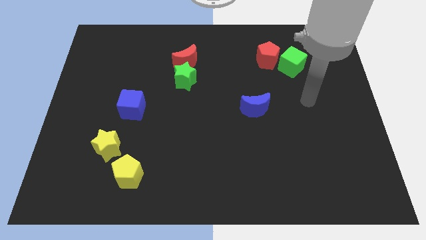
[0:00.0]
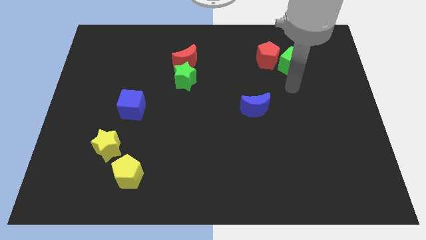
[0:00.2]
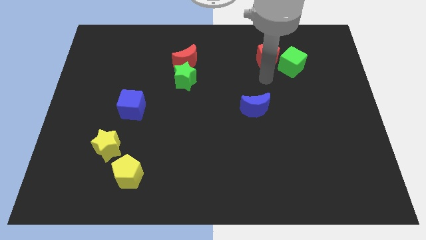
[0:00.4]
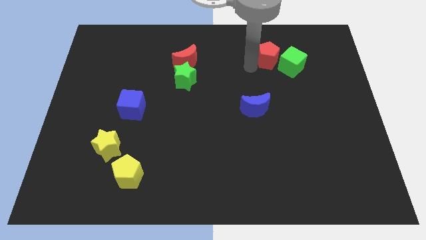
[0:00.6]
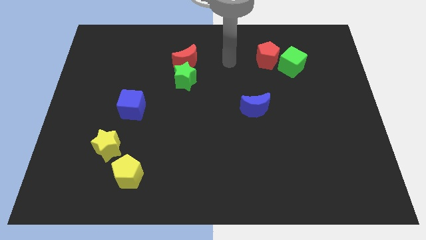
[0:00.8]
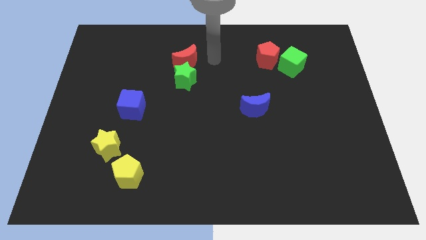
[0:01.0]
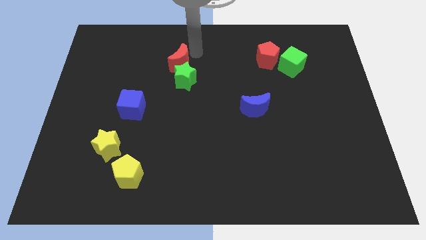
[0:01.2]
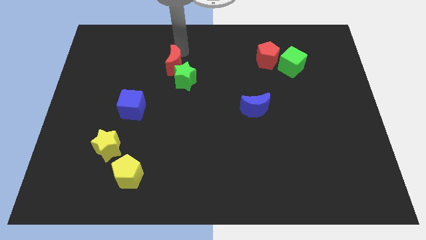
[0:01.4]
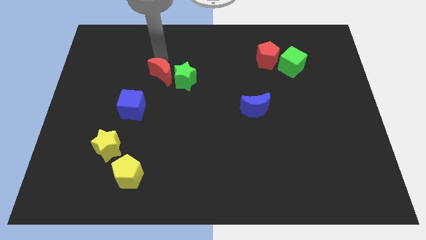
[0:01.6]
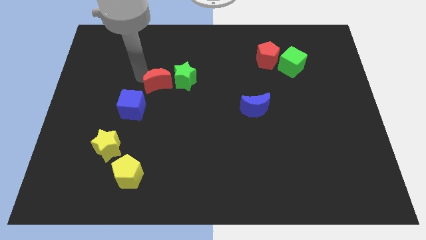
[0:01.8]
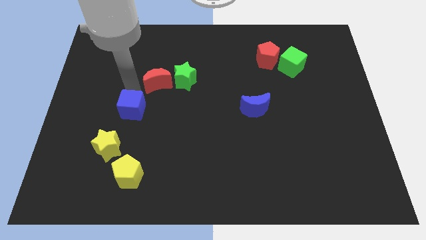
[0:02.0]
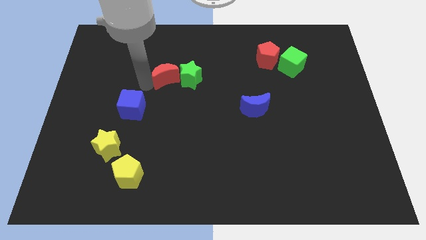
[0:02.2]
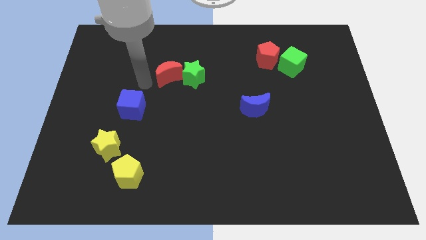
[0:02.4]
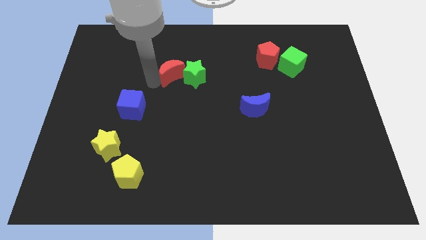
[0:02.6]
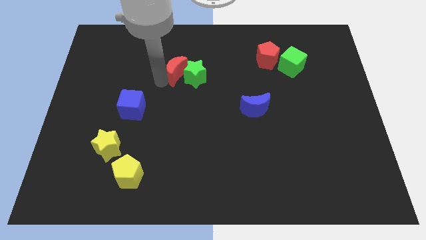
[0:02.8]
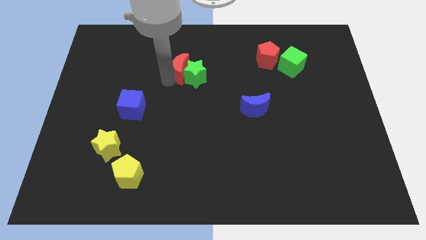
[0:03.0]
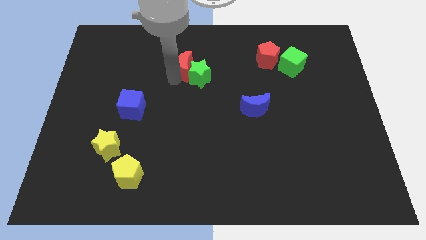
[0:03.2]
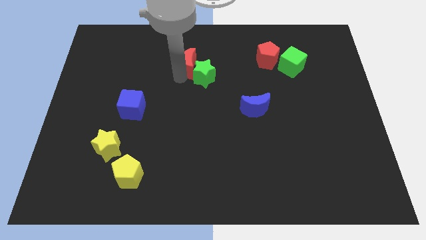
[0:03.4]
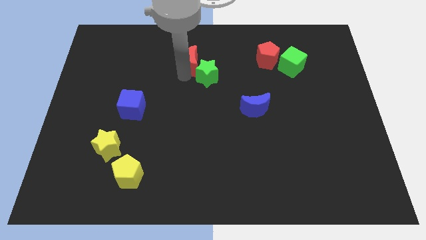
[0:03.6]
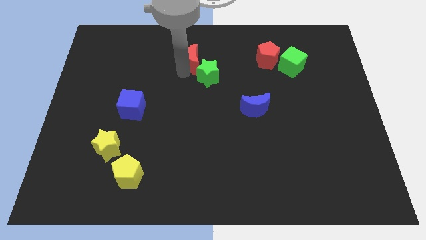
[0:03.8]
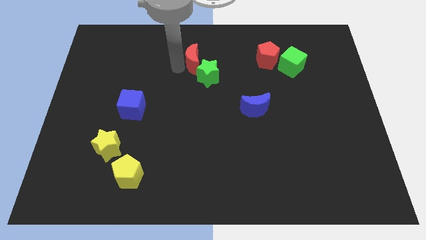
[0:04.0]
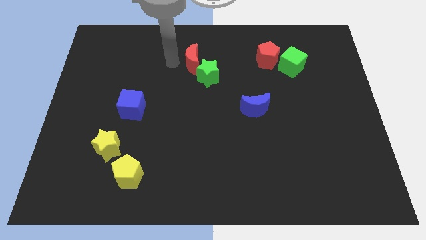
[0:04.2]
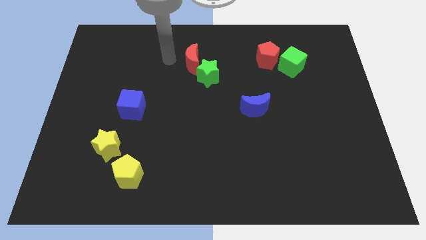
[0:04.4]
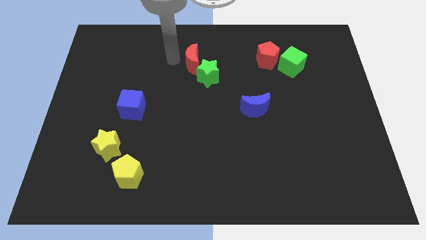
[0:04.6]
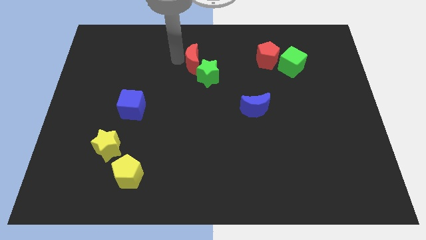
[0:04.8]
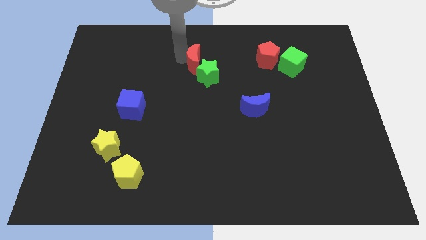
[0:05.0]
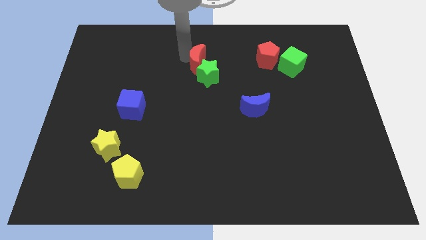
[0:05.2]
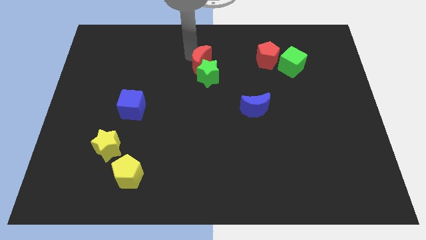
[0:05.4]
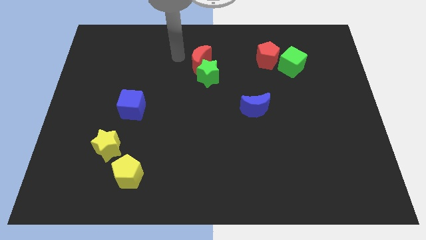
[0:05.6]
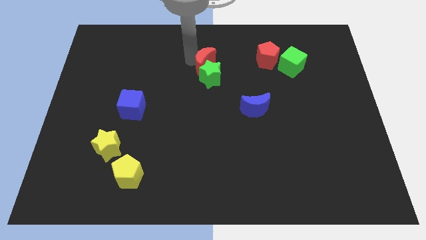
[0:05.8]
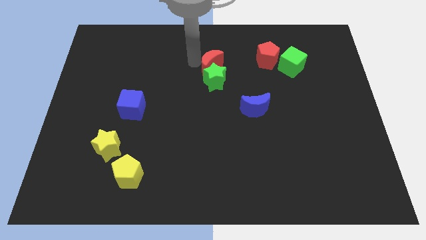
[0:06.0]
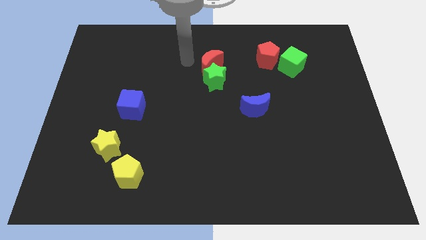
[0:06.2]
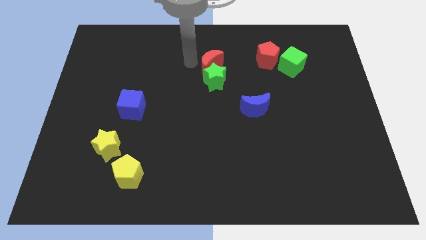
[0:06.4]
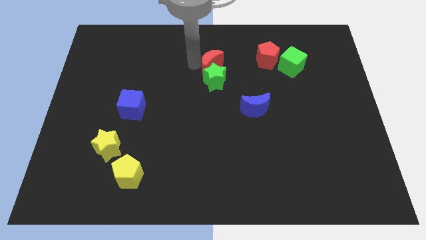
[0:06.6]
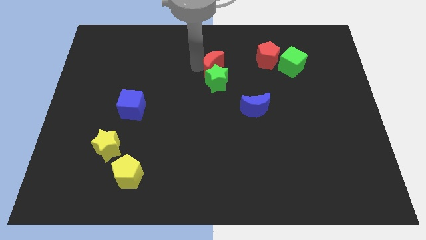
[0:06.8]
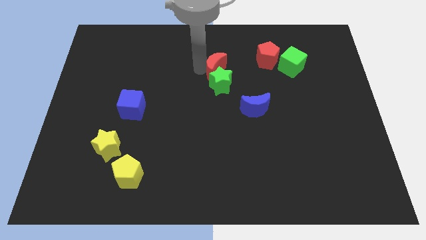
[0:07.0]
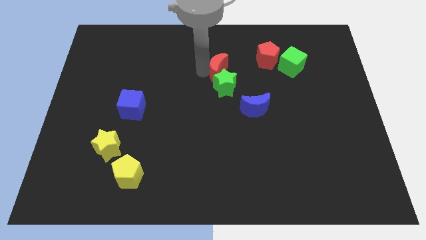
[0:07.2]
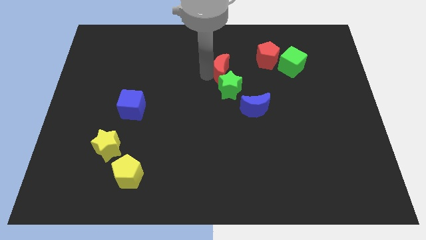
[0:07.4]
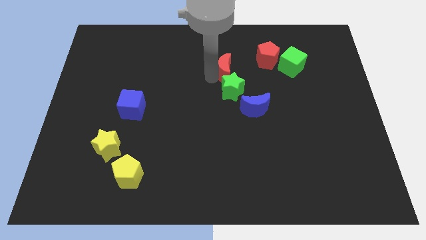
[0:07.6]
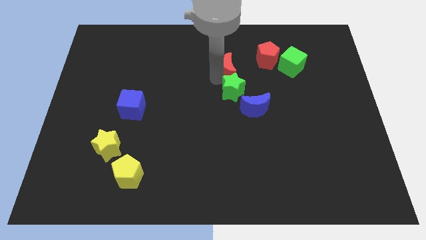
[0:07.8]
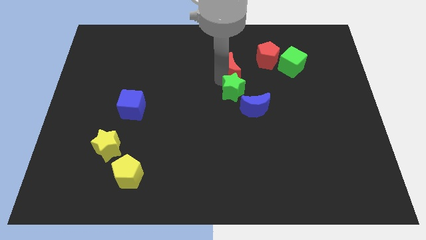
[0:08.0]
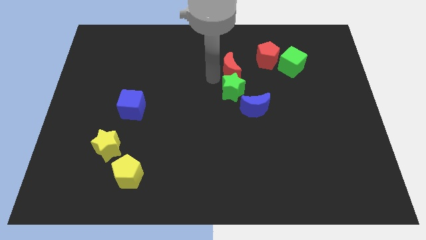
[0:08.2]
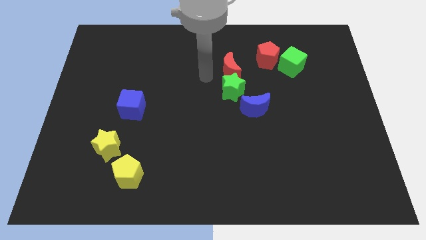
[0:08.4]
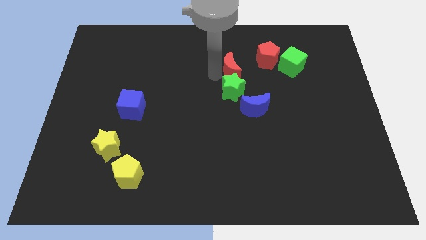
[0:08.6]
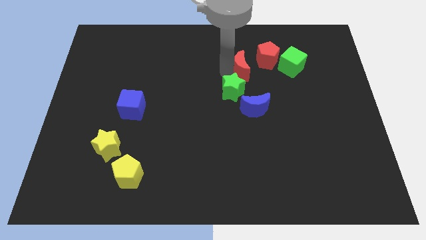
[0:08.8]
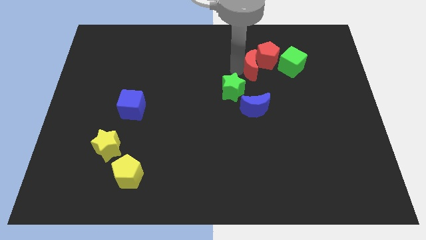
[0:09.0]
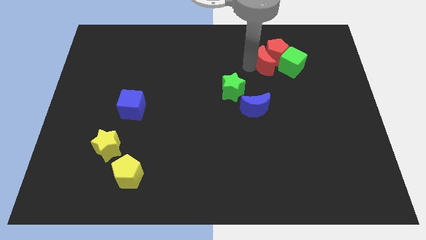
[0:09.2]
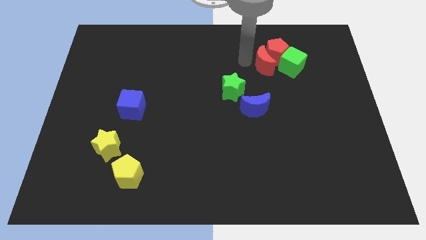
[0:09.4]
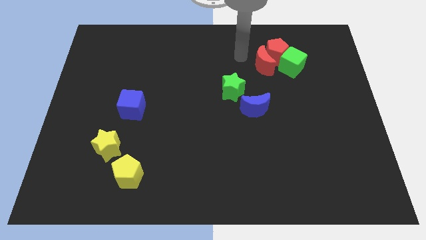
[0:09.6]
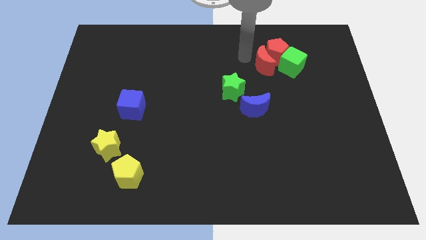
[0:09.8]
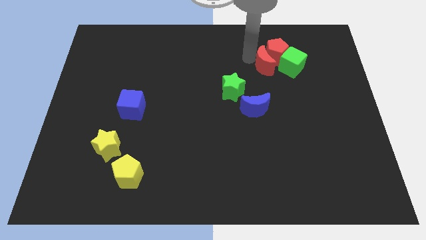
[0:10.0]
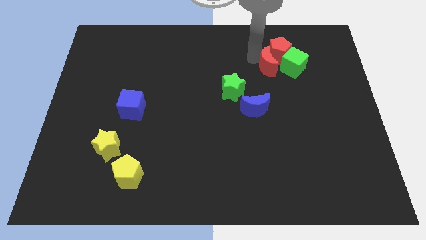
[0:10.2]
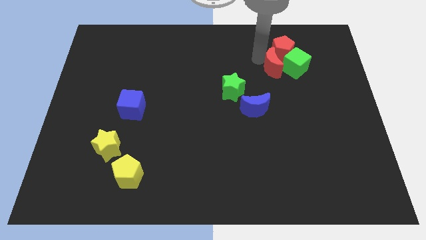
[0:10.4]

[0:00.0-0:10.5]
push the red moon towards the green cube

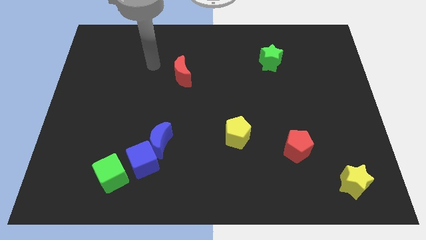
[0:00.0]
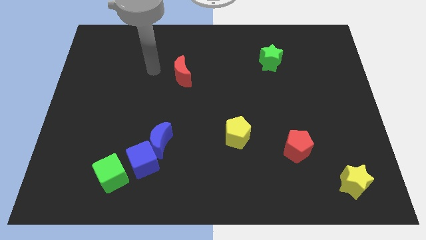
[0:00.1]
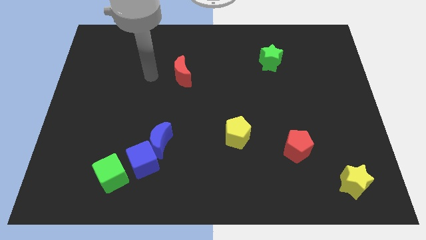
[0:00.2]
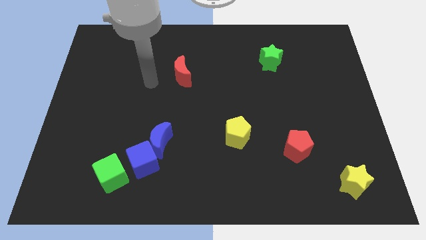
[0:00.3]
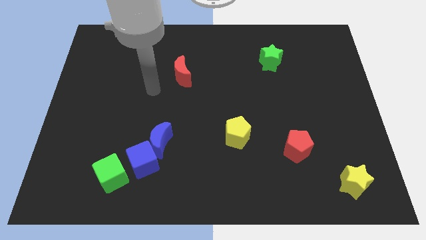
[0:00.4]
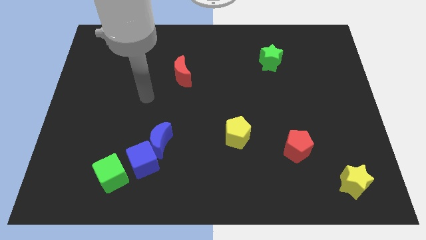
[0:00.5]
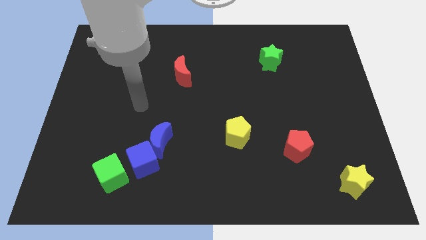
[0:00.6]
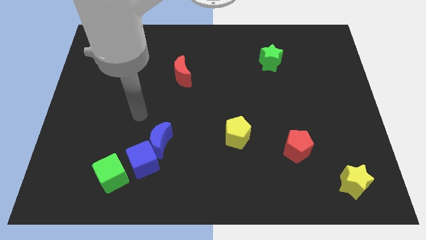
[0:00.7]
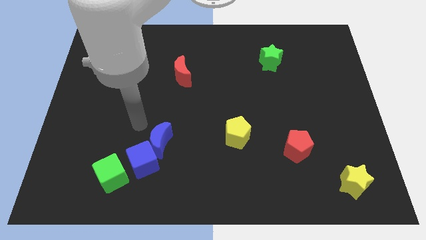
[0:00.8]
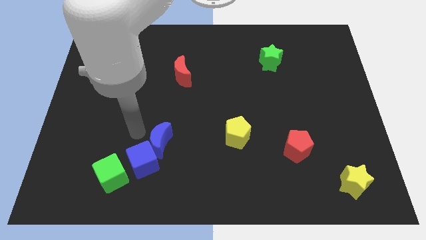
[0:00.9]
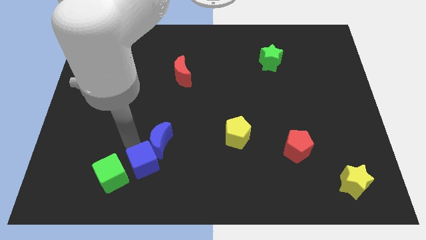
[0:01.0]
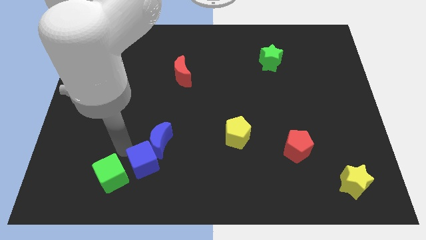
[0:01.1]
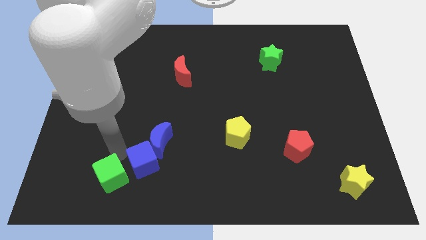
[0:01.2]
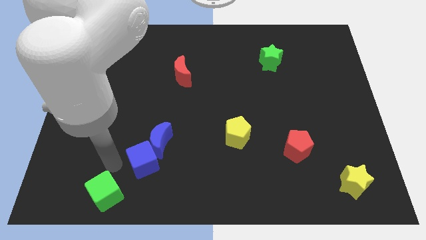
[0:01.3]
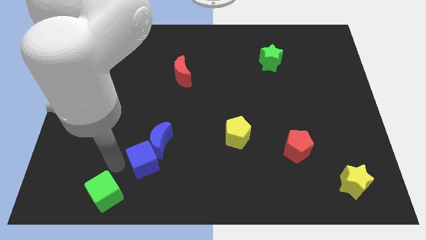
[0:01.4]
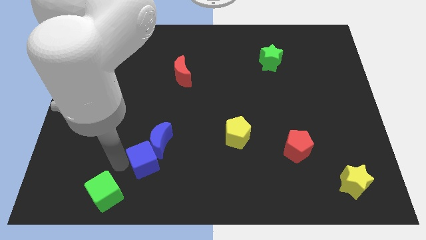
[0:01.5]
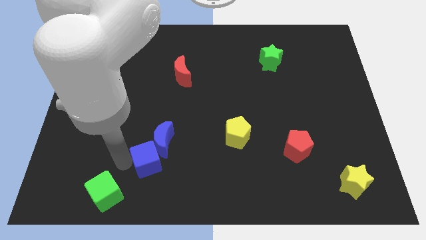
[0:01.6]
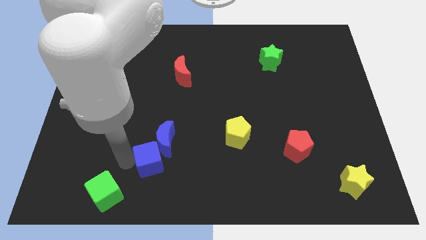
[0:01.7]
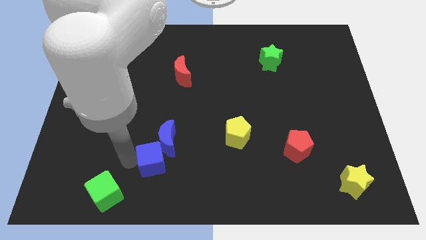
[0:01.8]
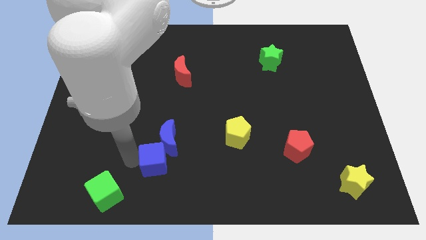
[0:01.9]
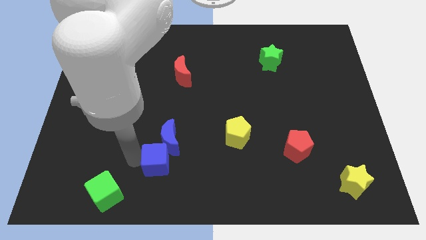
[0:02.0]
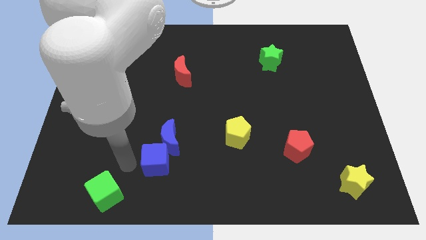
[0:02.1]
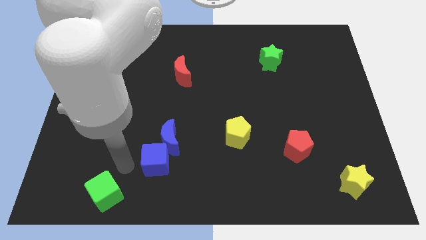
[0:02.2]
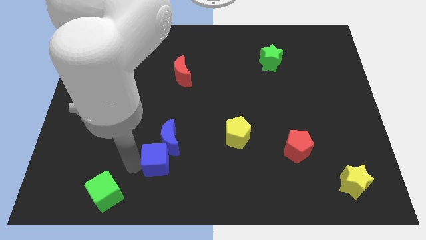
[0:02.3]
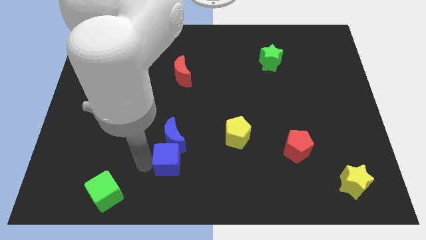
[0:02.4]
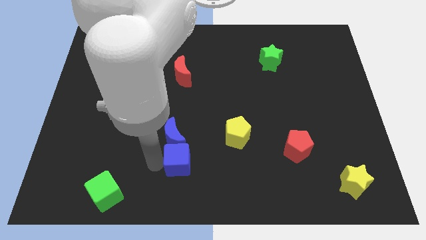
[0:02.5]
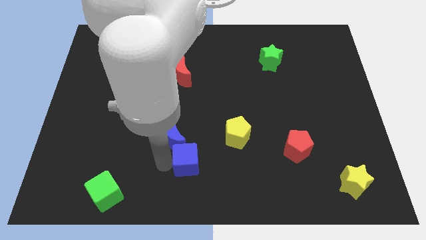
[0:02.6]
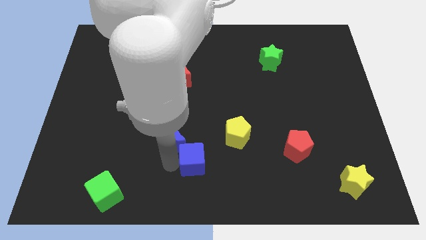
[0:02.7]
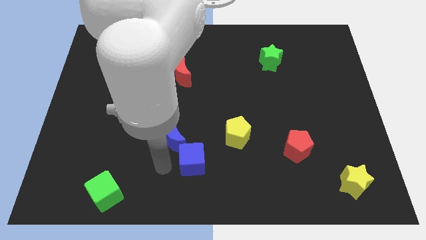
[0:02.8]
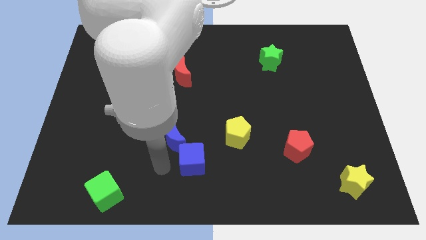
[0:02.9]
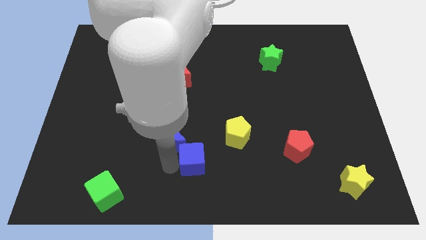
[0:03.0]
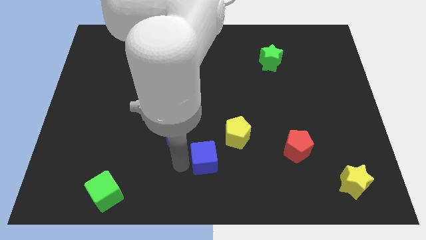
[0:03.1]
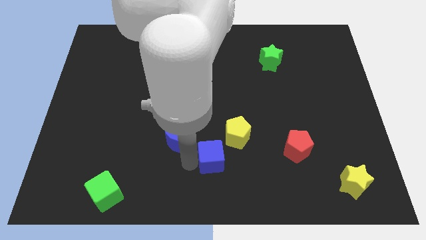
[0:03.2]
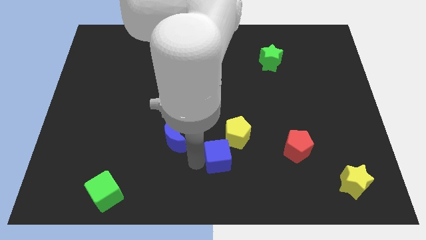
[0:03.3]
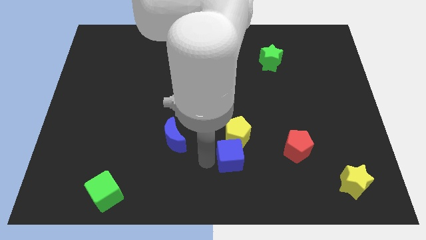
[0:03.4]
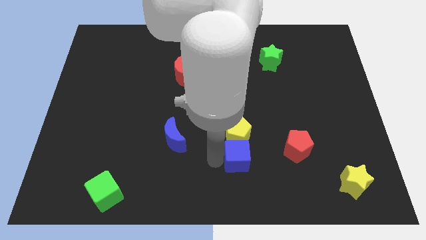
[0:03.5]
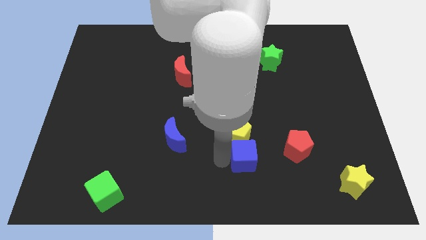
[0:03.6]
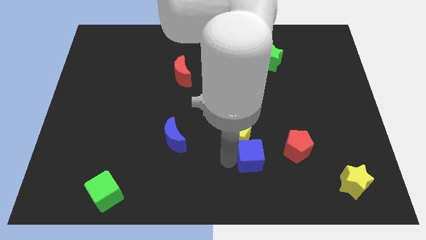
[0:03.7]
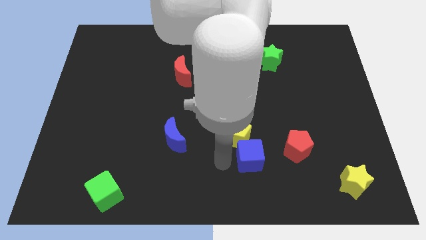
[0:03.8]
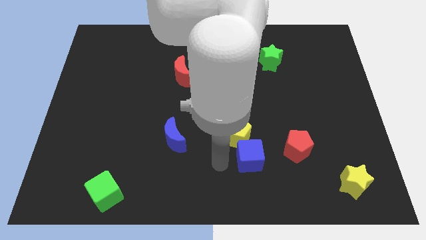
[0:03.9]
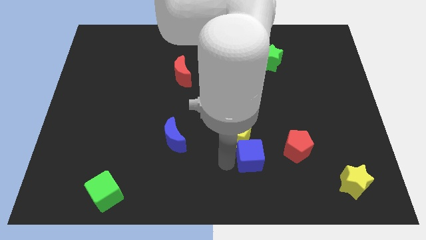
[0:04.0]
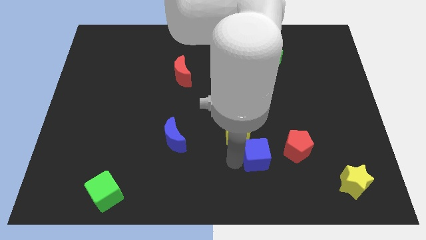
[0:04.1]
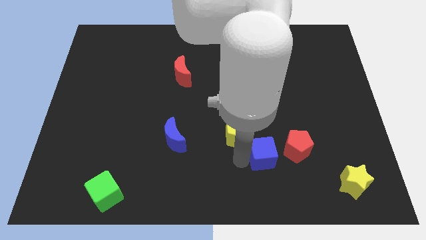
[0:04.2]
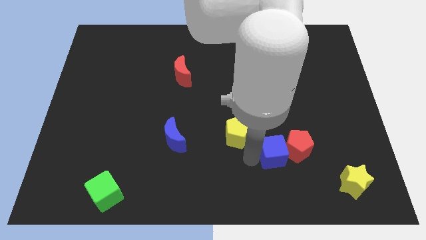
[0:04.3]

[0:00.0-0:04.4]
move the blue cube next to the red pentagon
